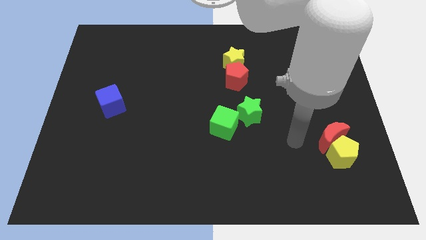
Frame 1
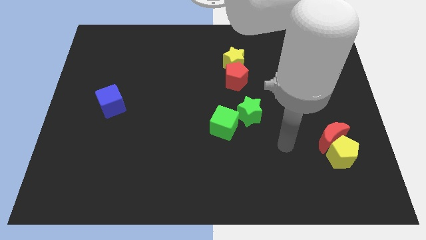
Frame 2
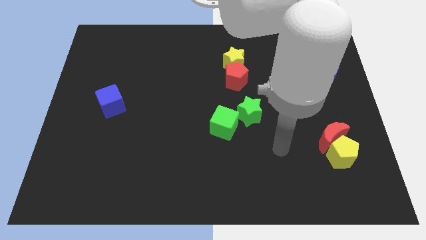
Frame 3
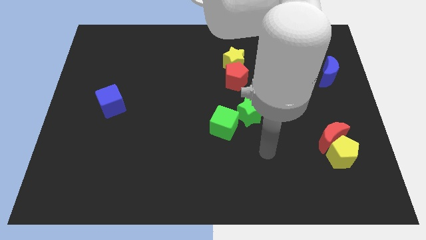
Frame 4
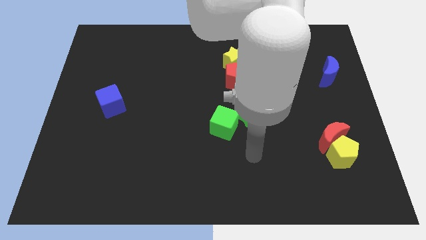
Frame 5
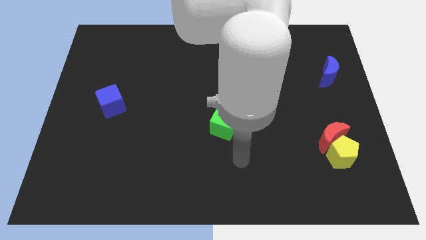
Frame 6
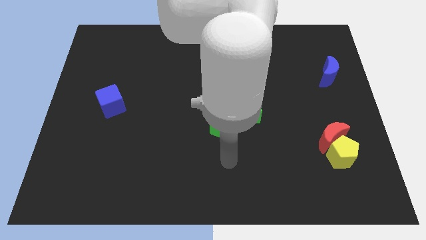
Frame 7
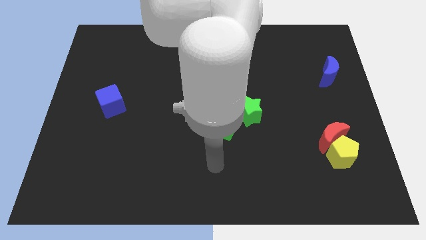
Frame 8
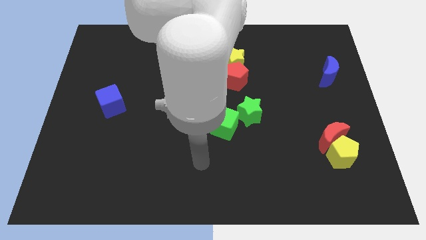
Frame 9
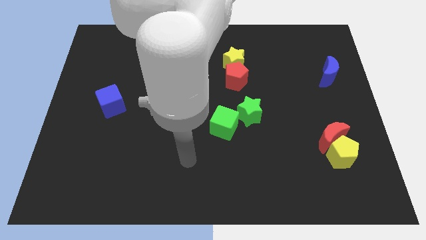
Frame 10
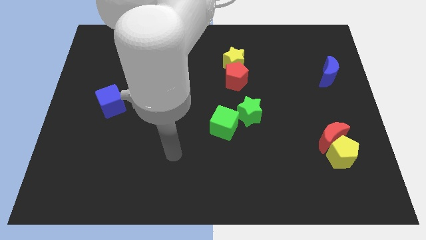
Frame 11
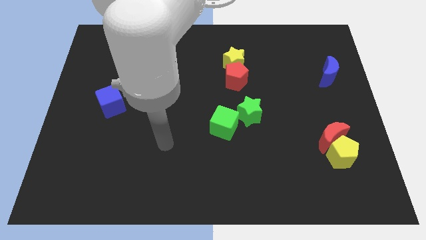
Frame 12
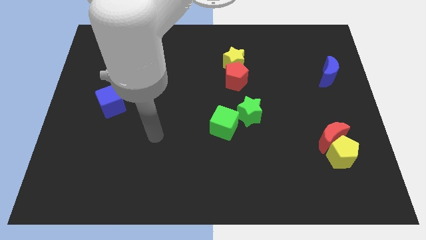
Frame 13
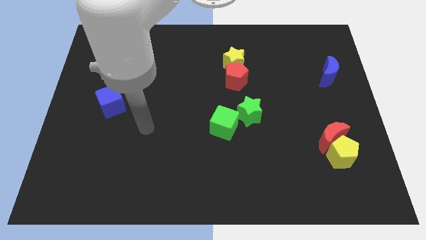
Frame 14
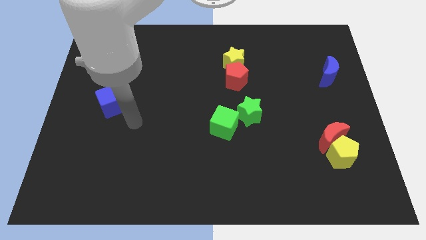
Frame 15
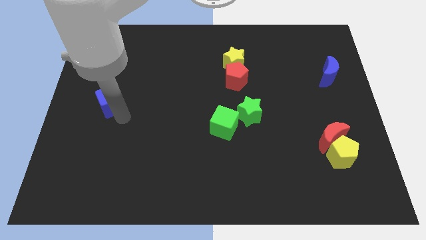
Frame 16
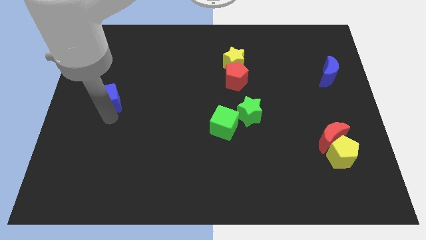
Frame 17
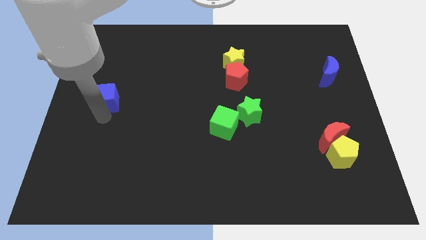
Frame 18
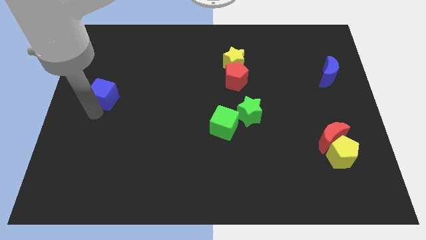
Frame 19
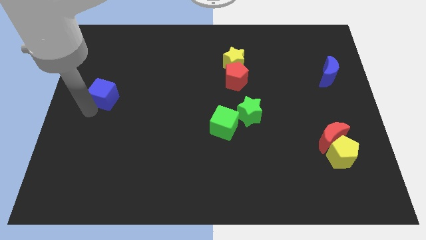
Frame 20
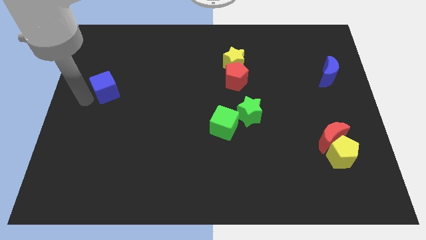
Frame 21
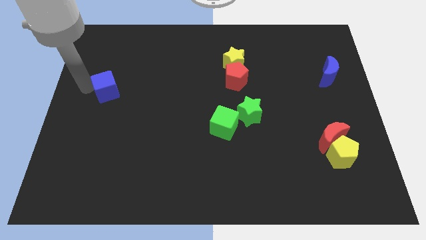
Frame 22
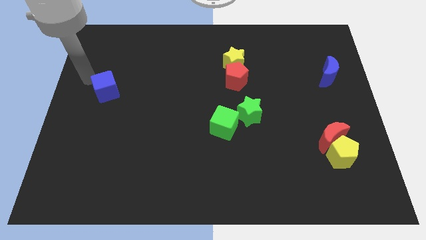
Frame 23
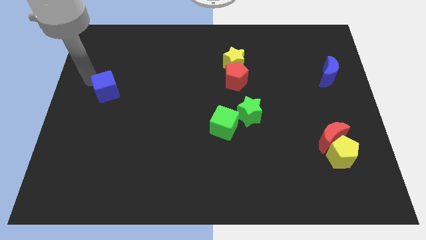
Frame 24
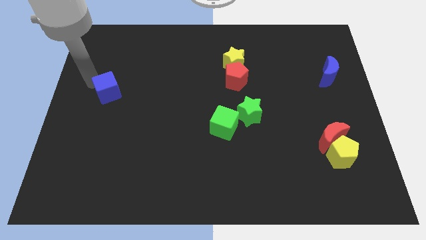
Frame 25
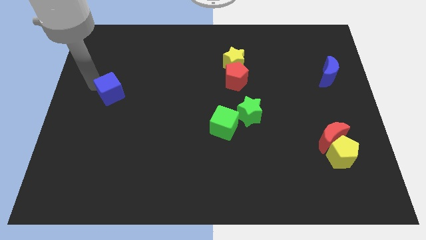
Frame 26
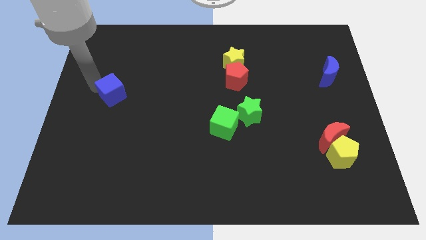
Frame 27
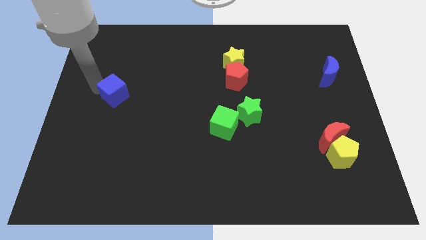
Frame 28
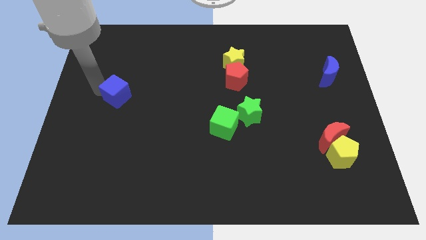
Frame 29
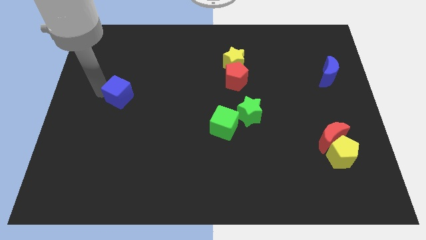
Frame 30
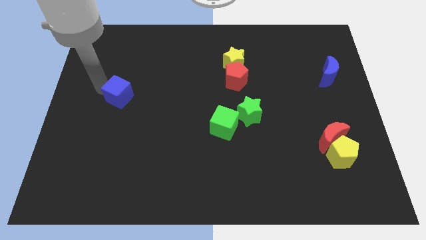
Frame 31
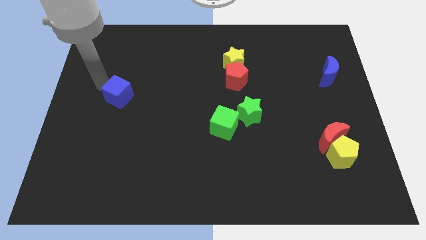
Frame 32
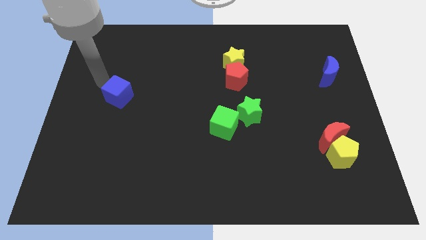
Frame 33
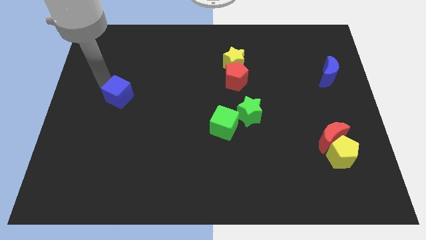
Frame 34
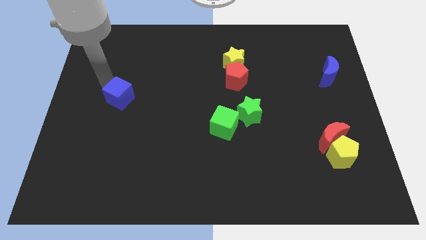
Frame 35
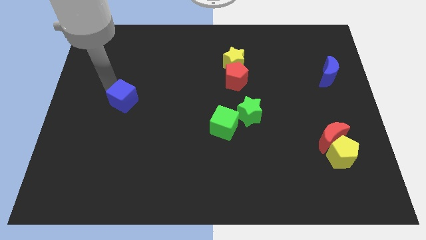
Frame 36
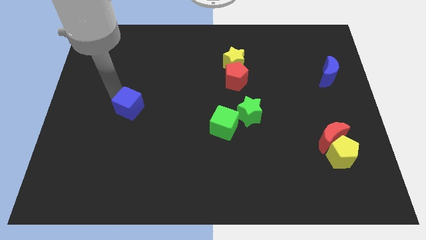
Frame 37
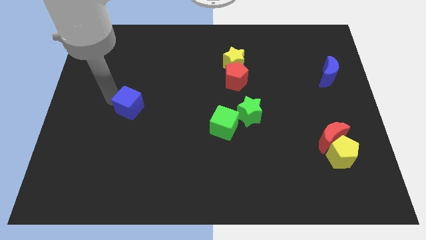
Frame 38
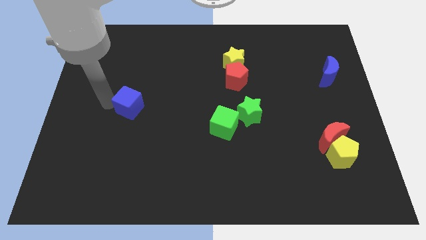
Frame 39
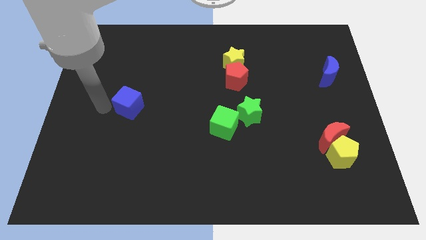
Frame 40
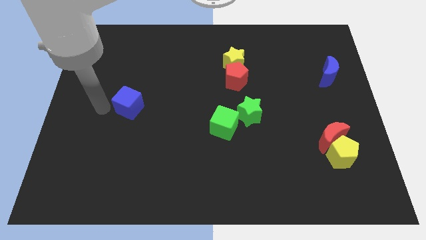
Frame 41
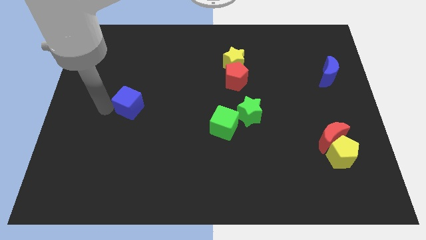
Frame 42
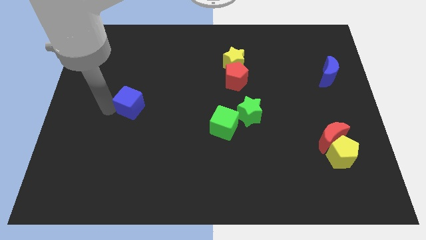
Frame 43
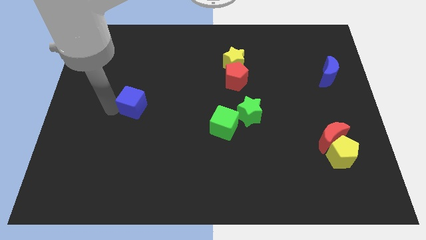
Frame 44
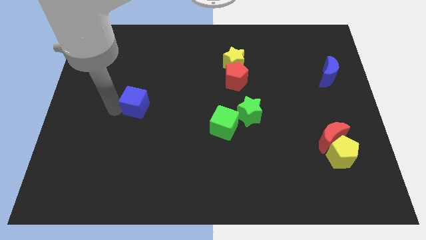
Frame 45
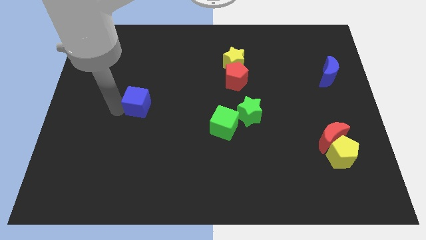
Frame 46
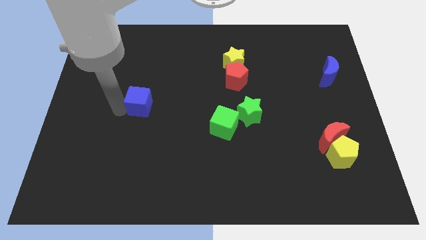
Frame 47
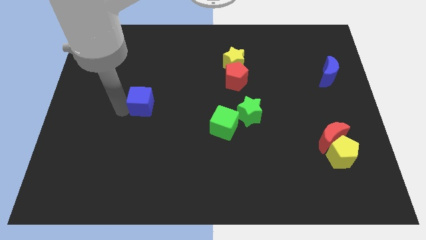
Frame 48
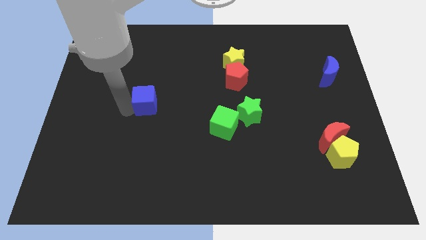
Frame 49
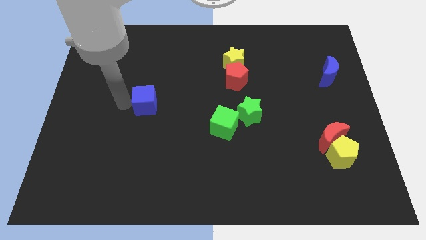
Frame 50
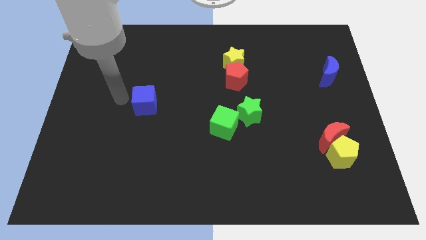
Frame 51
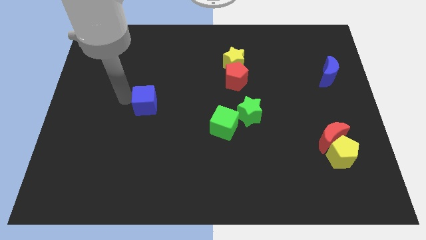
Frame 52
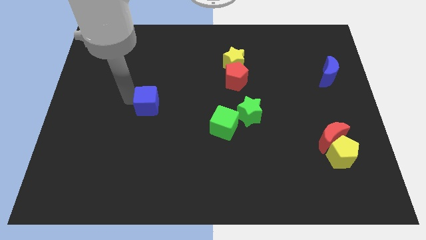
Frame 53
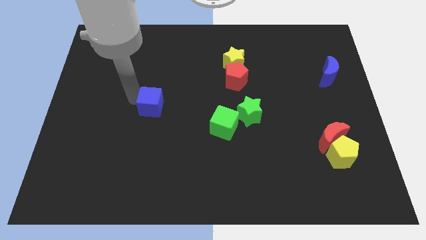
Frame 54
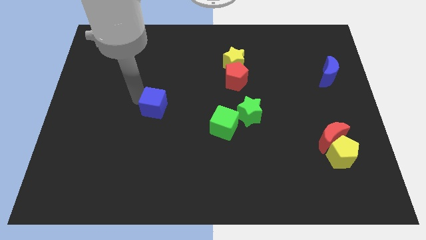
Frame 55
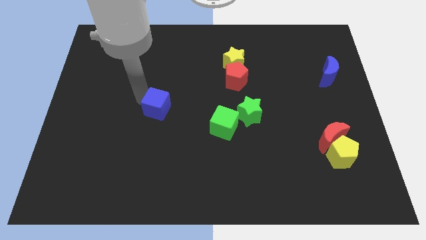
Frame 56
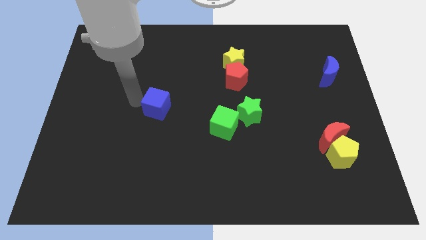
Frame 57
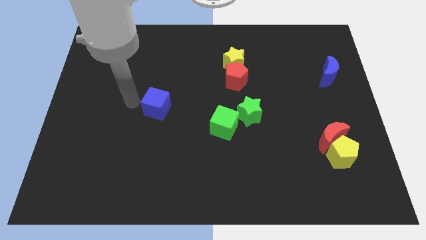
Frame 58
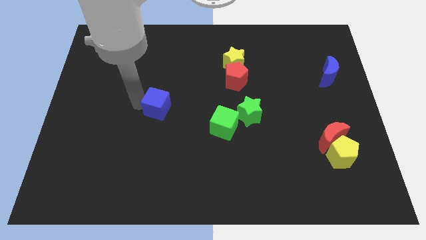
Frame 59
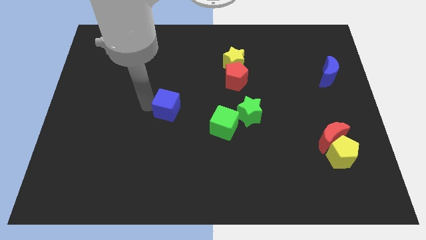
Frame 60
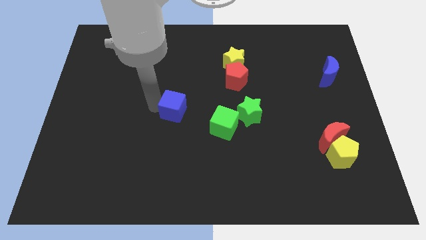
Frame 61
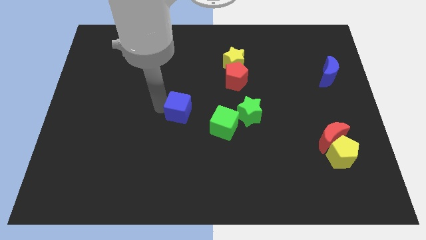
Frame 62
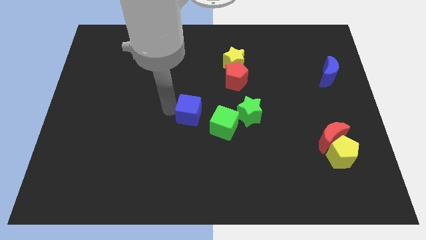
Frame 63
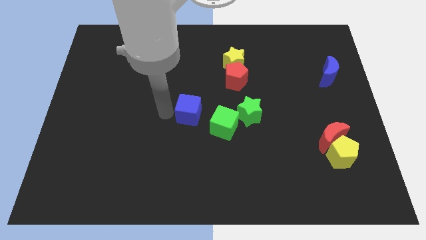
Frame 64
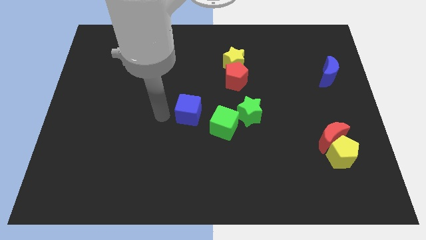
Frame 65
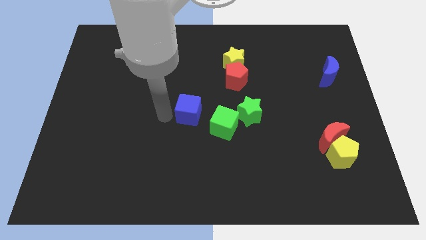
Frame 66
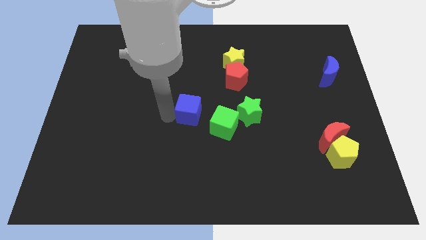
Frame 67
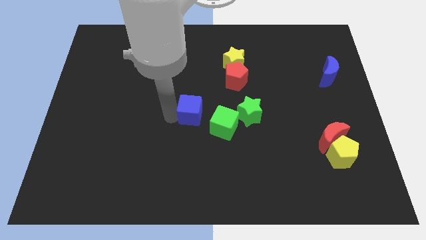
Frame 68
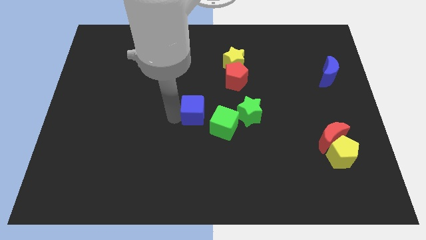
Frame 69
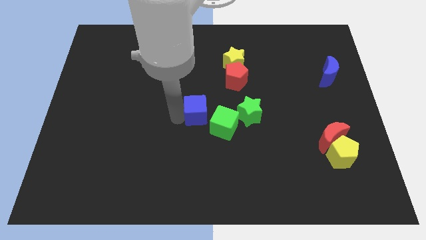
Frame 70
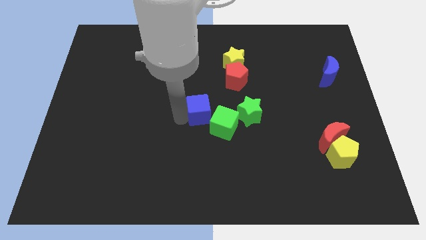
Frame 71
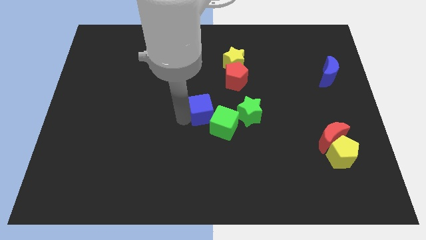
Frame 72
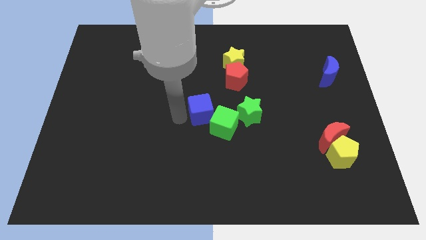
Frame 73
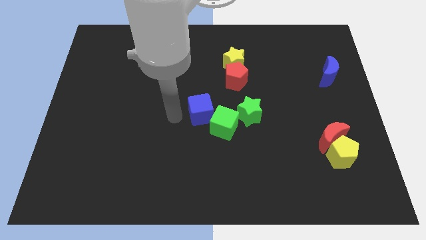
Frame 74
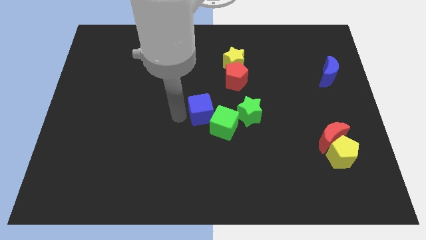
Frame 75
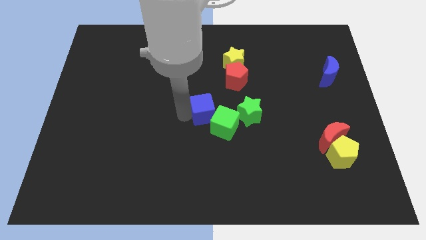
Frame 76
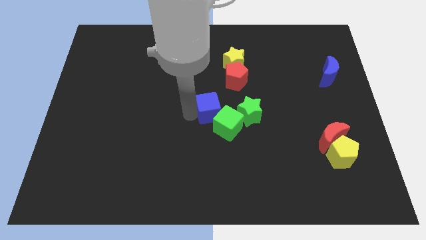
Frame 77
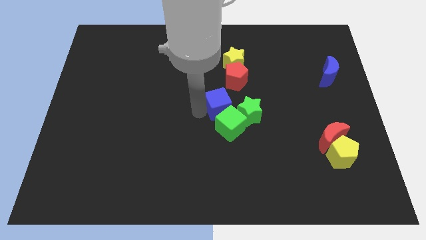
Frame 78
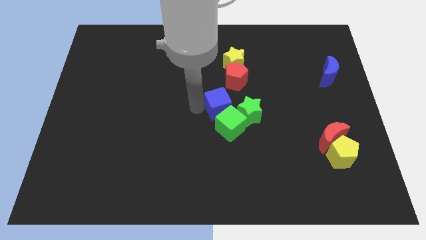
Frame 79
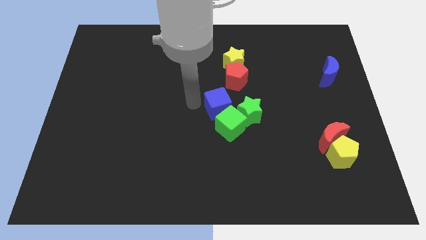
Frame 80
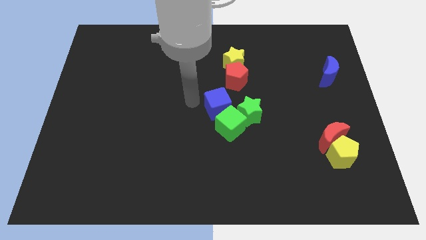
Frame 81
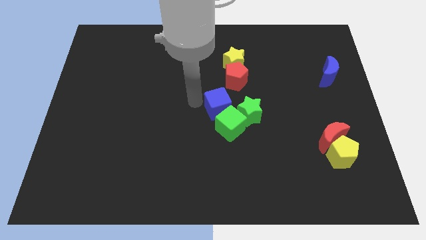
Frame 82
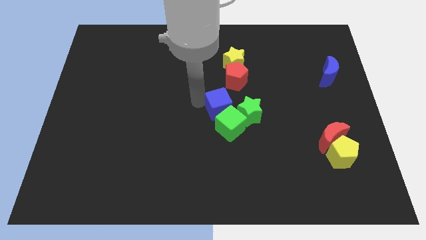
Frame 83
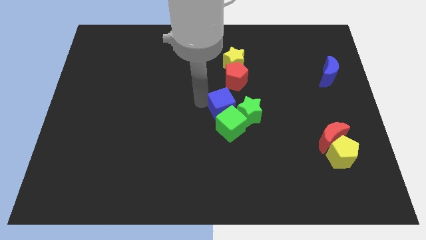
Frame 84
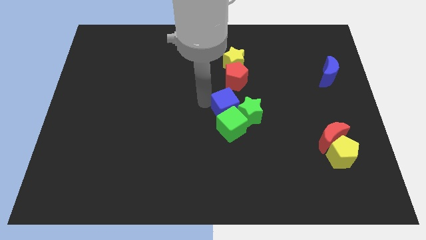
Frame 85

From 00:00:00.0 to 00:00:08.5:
put the blue cube close to the green star
